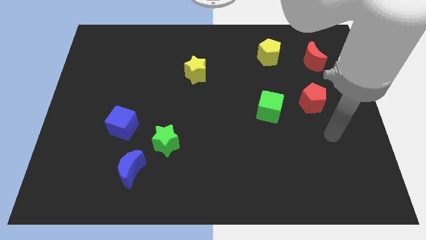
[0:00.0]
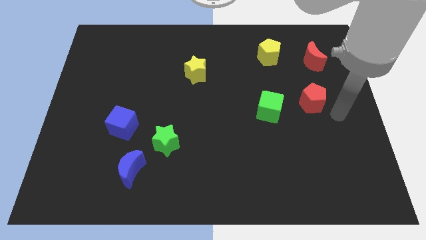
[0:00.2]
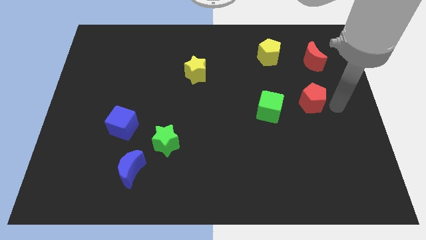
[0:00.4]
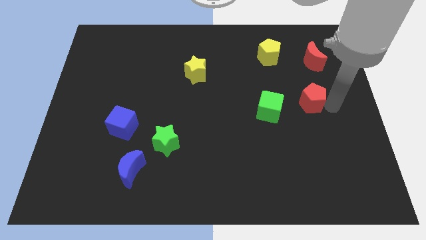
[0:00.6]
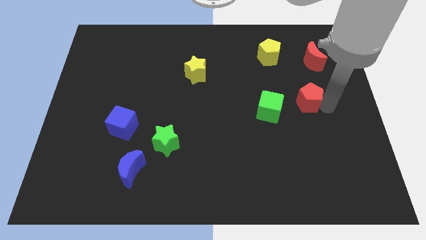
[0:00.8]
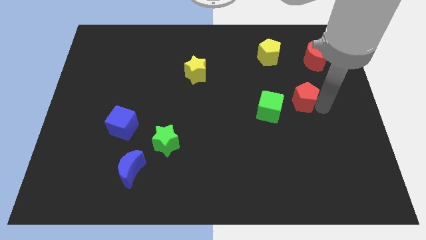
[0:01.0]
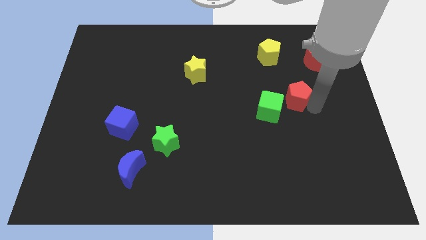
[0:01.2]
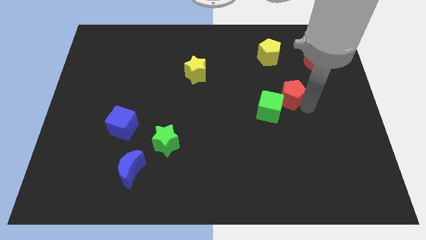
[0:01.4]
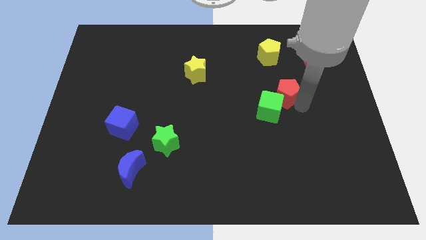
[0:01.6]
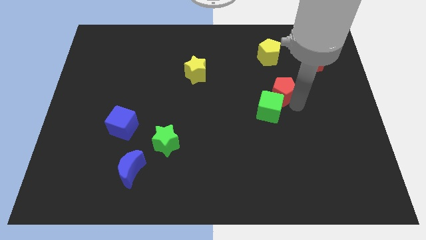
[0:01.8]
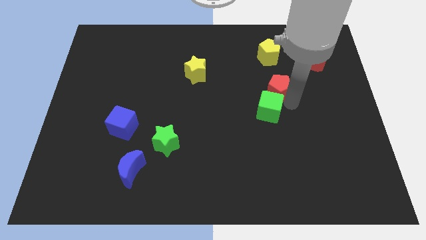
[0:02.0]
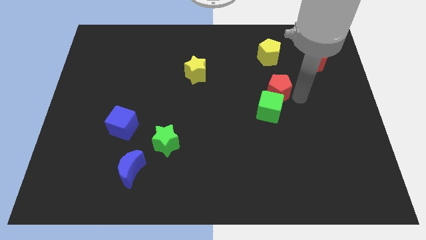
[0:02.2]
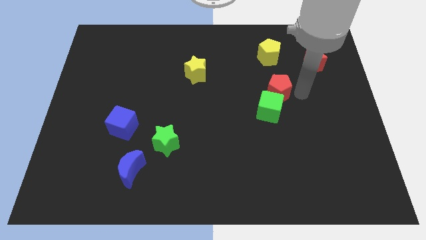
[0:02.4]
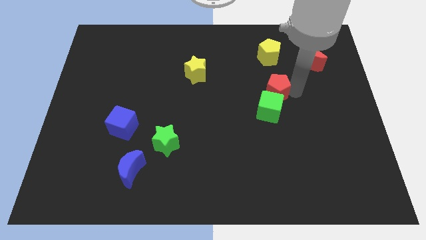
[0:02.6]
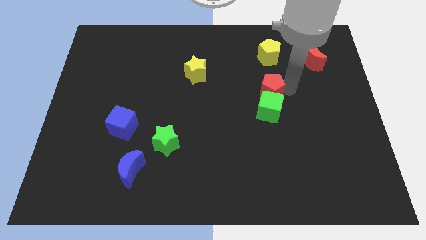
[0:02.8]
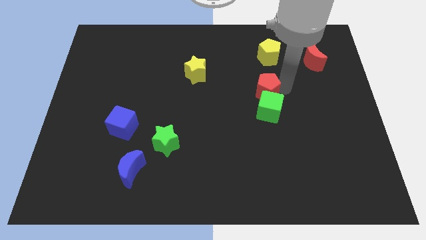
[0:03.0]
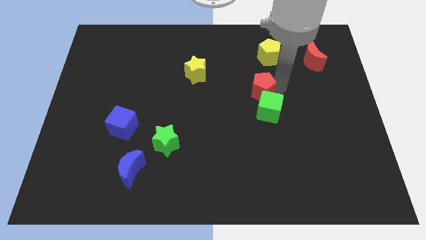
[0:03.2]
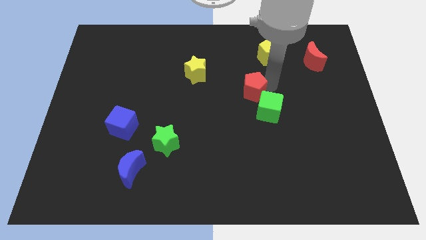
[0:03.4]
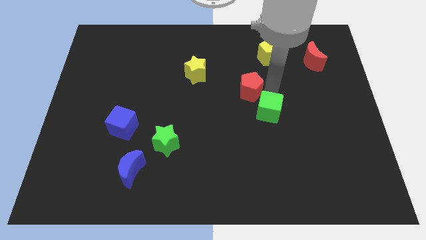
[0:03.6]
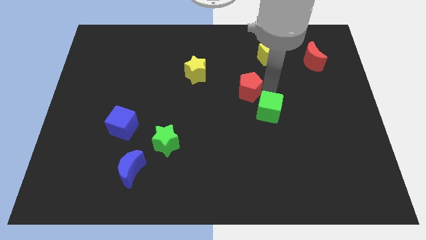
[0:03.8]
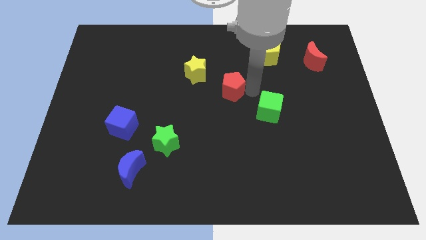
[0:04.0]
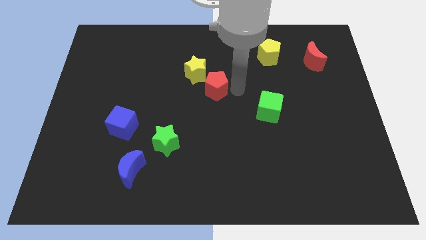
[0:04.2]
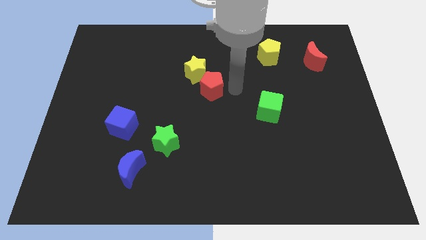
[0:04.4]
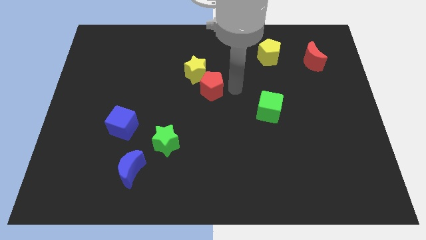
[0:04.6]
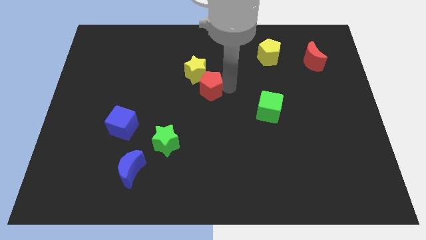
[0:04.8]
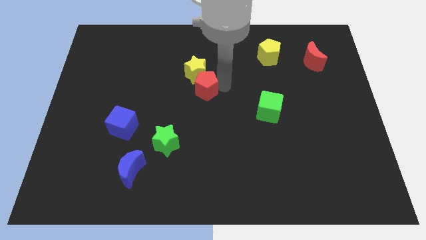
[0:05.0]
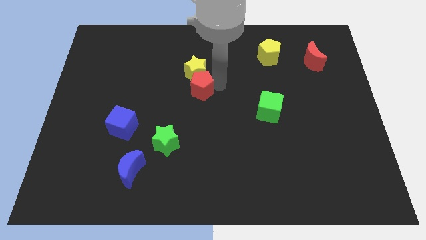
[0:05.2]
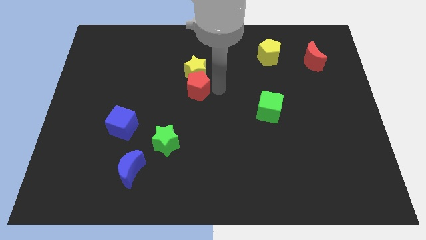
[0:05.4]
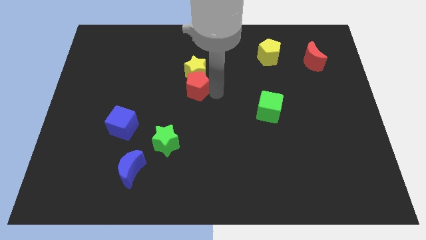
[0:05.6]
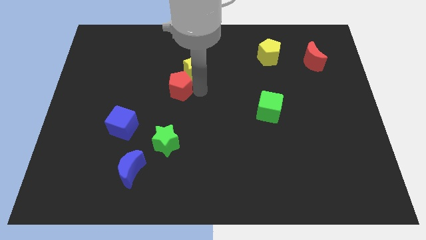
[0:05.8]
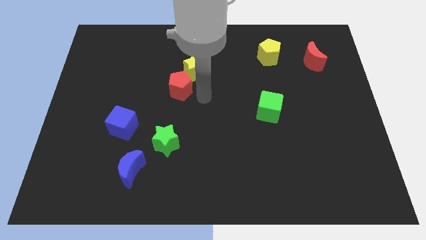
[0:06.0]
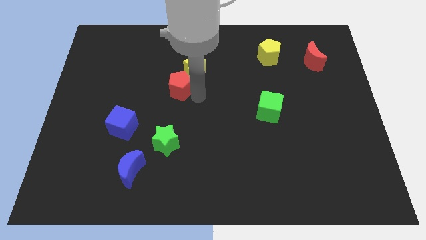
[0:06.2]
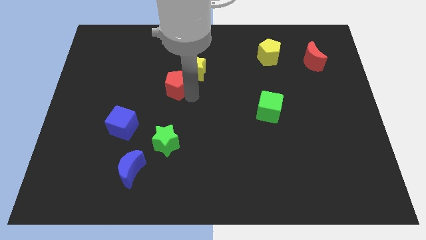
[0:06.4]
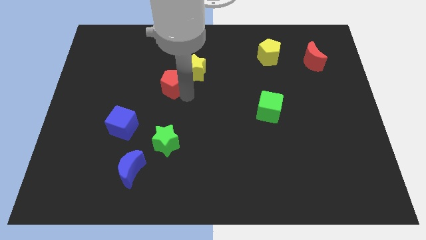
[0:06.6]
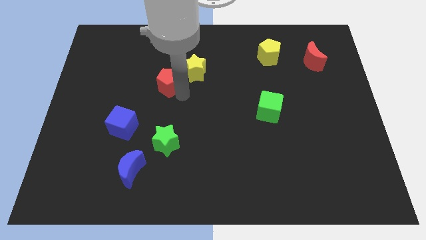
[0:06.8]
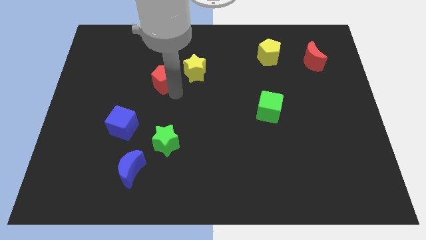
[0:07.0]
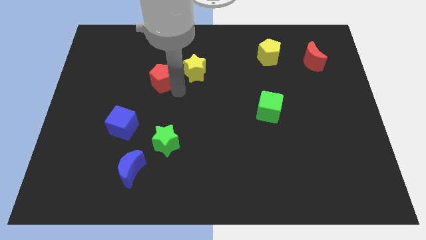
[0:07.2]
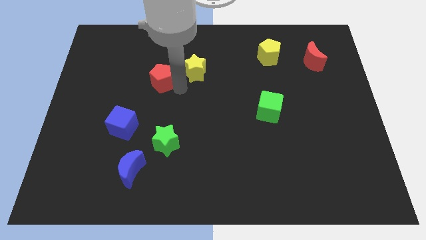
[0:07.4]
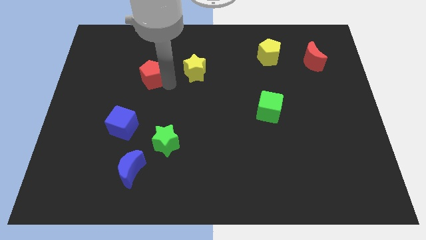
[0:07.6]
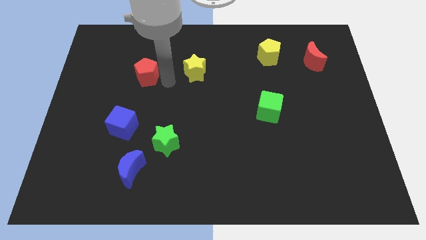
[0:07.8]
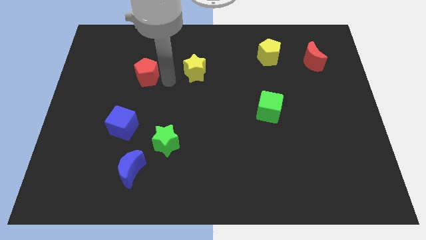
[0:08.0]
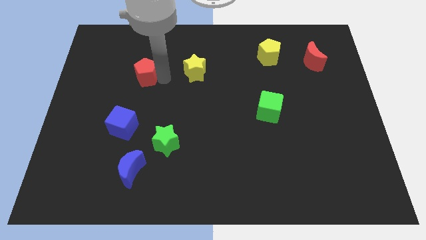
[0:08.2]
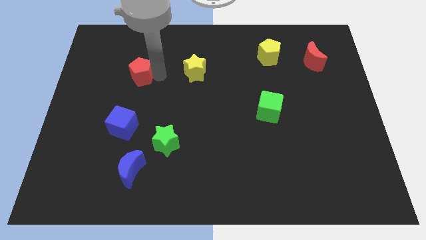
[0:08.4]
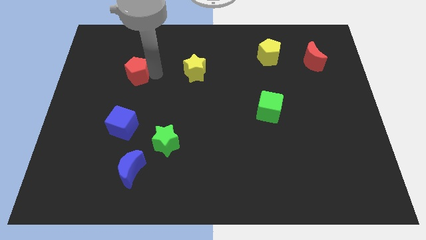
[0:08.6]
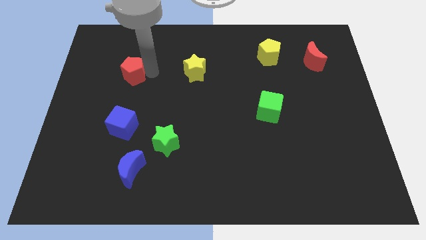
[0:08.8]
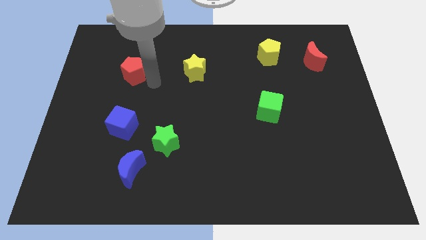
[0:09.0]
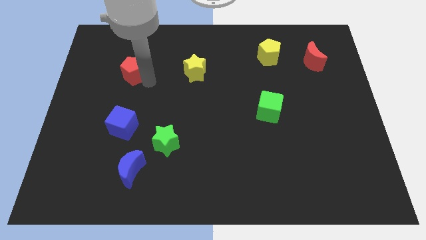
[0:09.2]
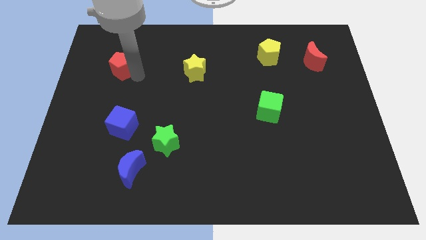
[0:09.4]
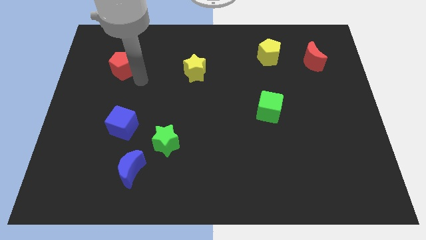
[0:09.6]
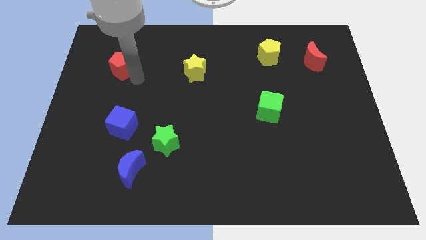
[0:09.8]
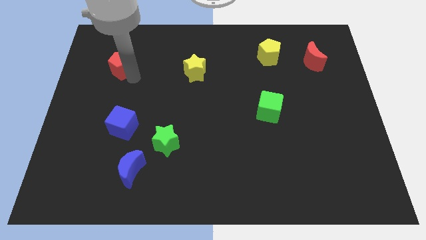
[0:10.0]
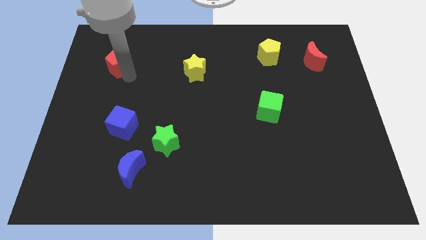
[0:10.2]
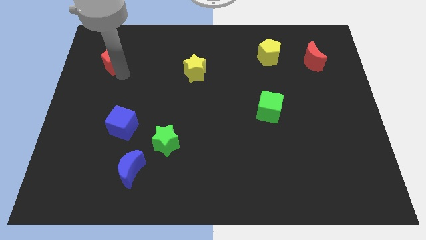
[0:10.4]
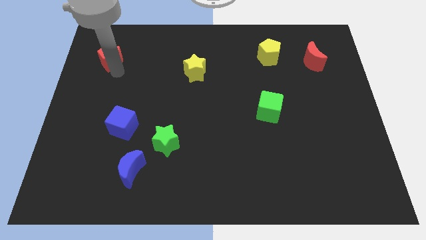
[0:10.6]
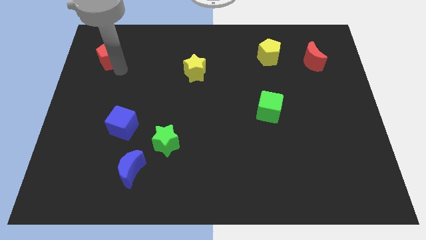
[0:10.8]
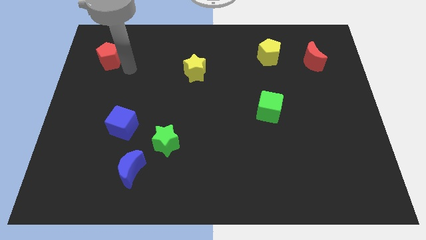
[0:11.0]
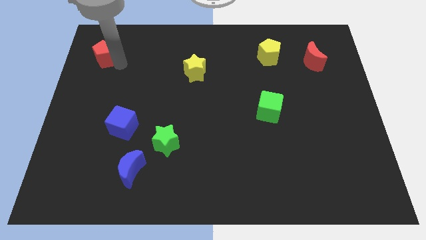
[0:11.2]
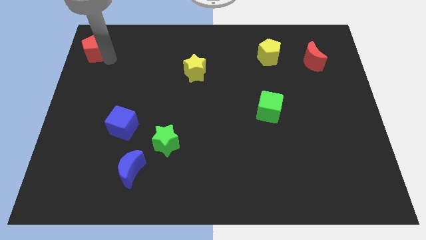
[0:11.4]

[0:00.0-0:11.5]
put the red pentagon to the upper left corner
